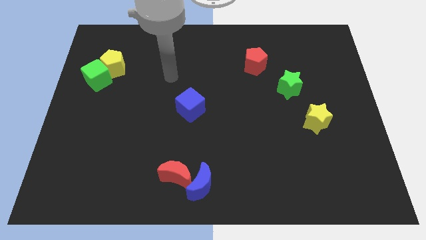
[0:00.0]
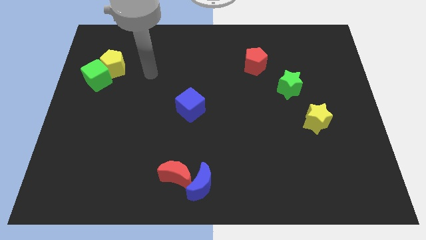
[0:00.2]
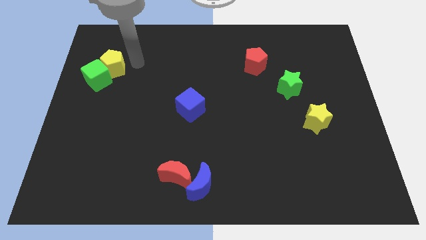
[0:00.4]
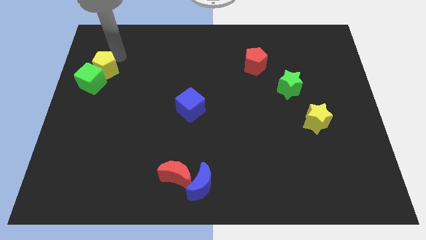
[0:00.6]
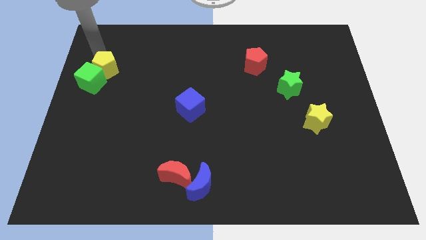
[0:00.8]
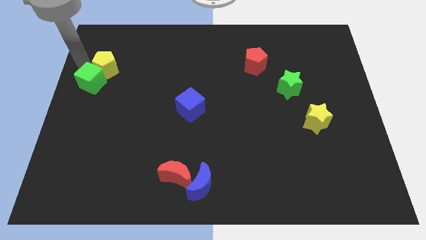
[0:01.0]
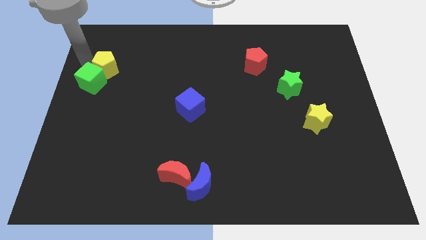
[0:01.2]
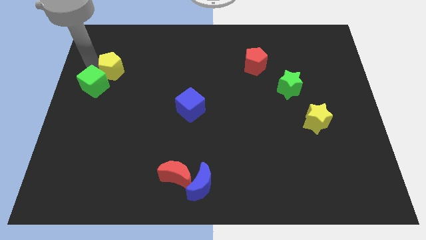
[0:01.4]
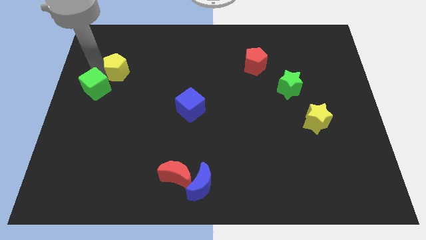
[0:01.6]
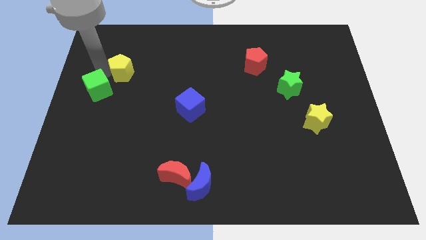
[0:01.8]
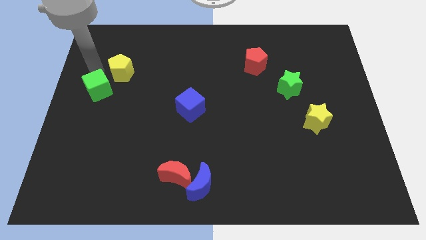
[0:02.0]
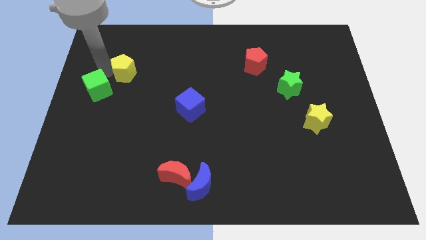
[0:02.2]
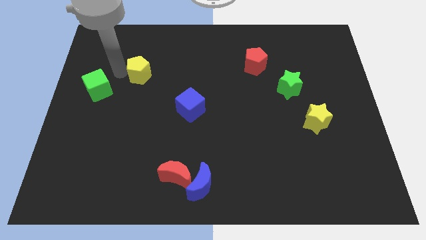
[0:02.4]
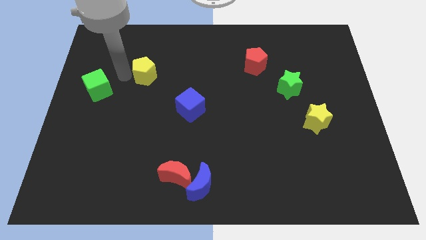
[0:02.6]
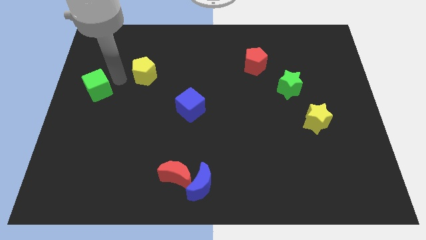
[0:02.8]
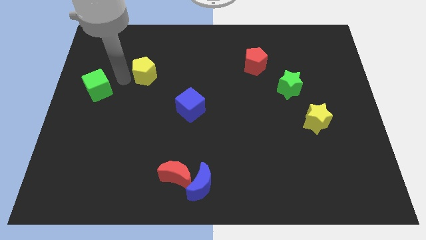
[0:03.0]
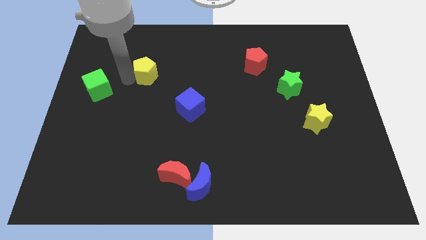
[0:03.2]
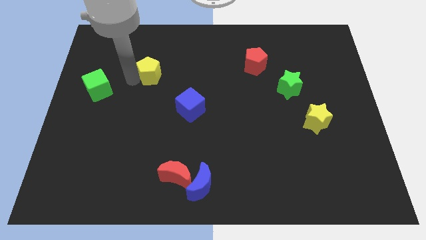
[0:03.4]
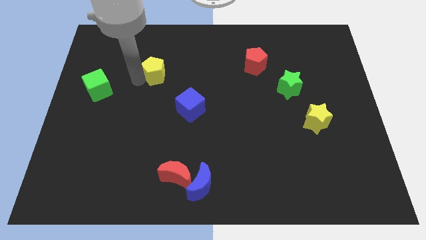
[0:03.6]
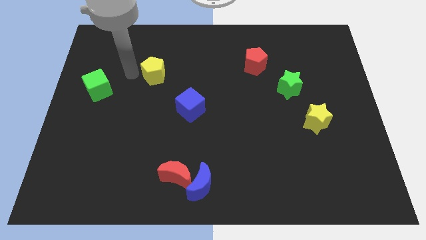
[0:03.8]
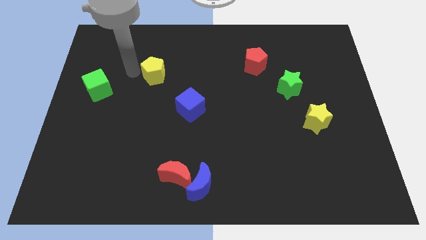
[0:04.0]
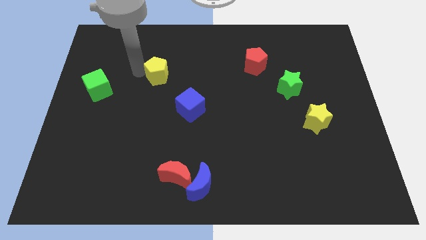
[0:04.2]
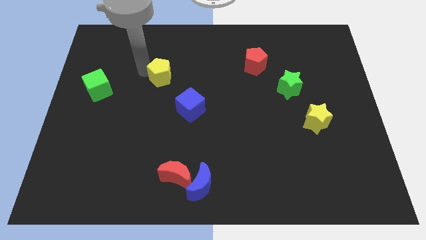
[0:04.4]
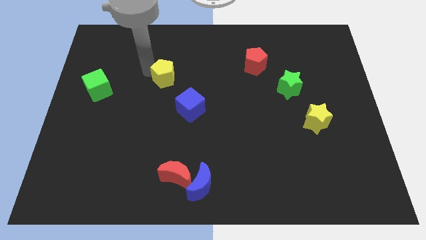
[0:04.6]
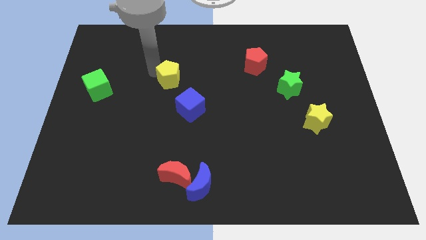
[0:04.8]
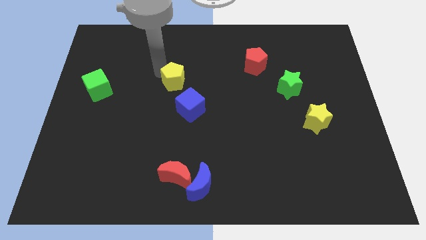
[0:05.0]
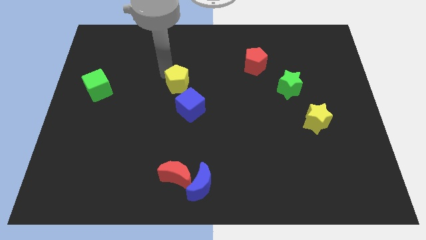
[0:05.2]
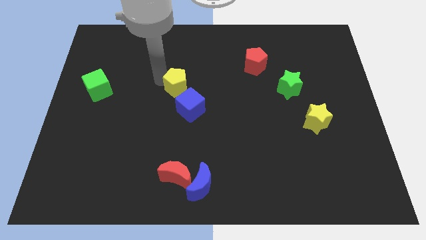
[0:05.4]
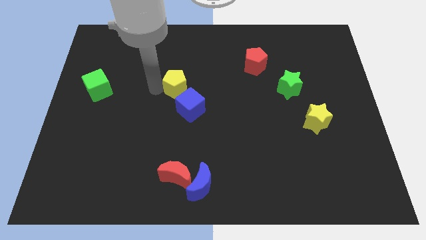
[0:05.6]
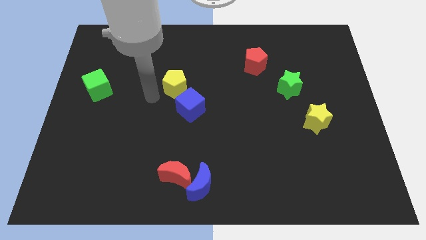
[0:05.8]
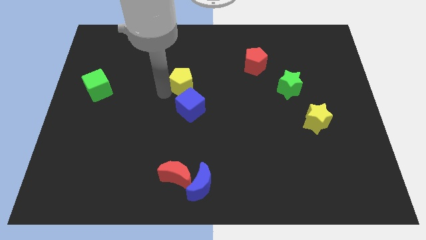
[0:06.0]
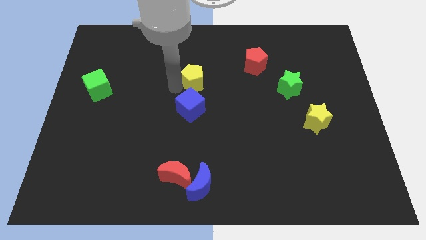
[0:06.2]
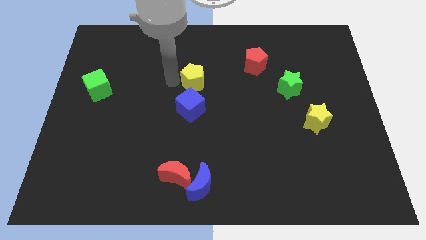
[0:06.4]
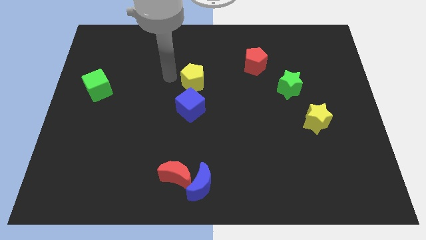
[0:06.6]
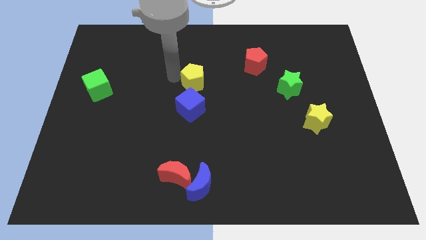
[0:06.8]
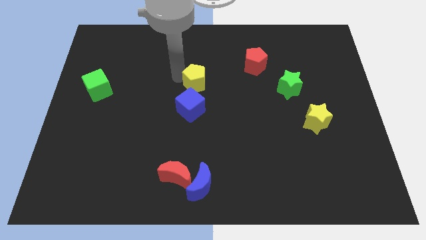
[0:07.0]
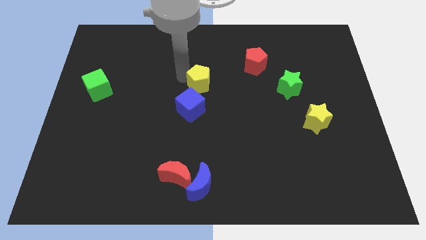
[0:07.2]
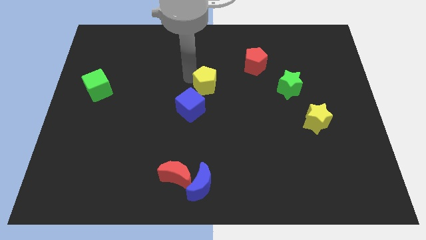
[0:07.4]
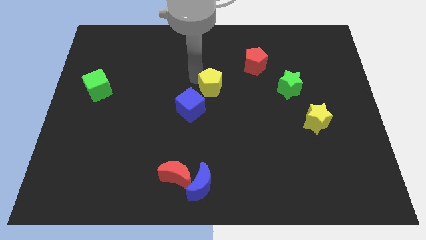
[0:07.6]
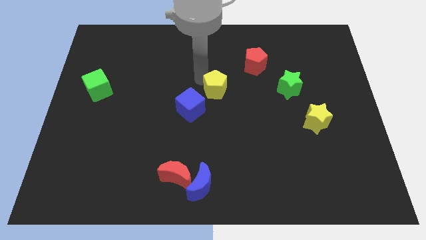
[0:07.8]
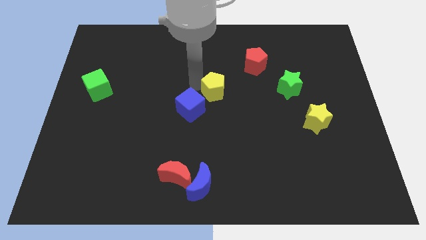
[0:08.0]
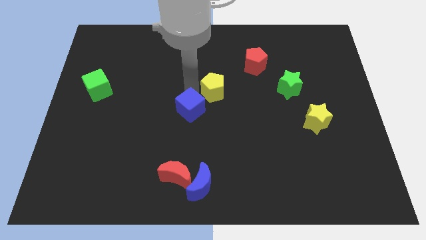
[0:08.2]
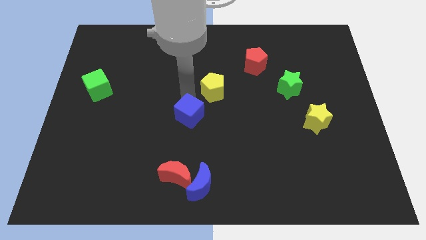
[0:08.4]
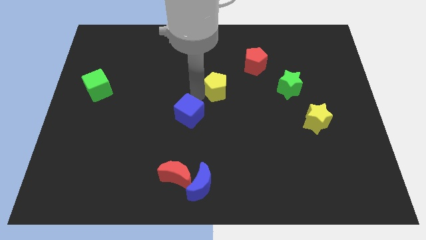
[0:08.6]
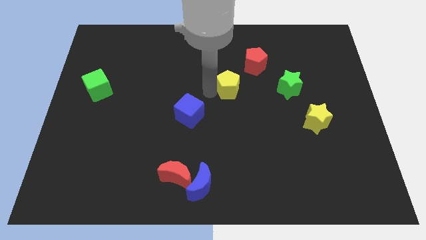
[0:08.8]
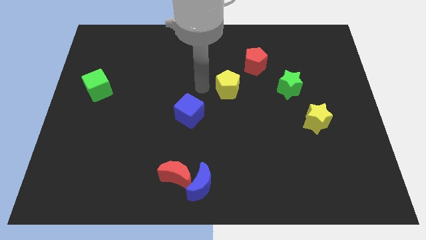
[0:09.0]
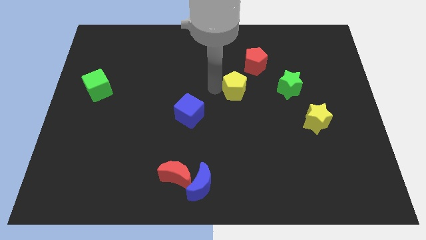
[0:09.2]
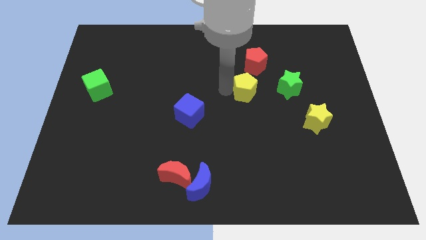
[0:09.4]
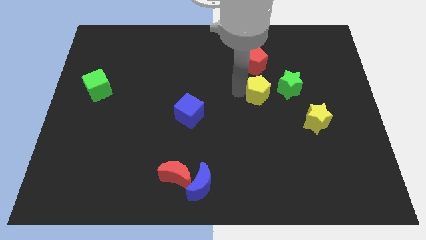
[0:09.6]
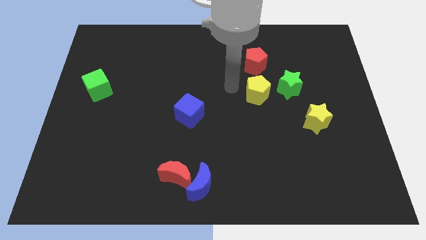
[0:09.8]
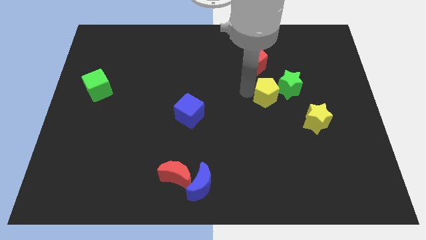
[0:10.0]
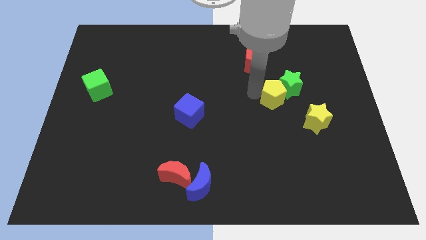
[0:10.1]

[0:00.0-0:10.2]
push the yellow pentagon diagonally up and to the left of the yellow star

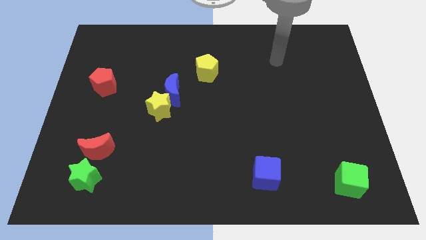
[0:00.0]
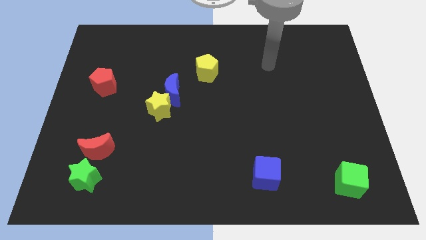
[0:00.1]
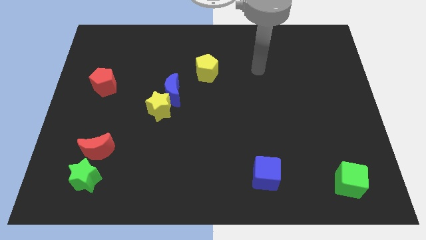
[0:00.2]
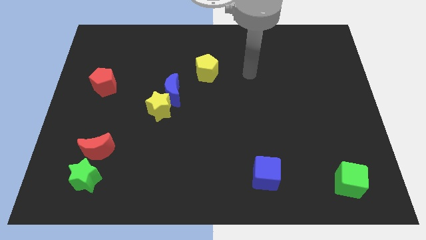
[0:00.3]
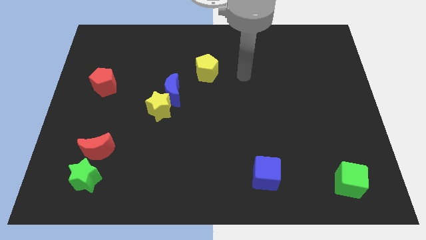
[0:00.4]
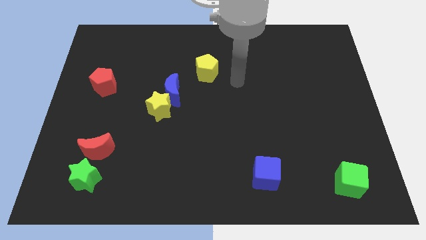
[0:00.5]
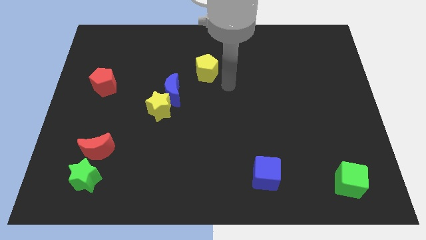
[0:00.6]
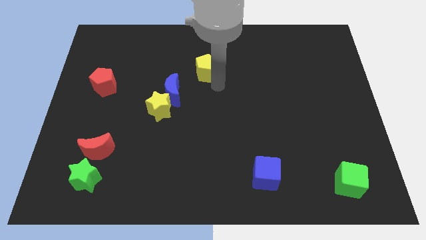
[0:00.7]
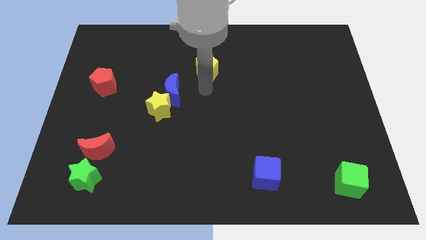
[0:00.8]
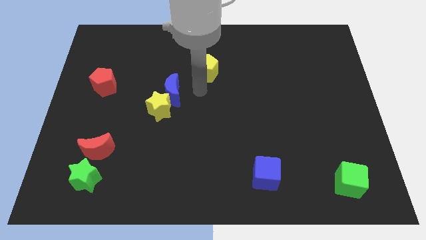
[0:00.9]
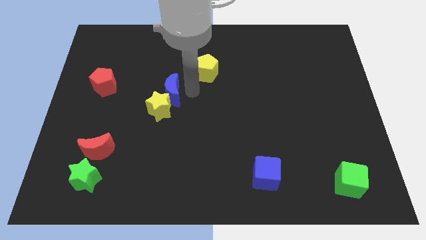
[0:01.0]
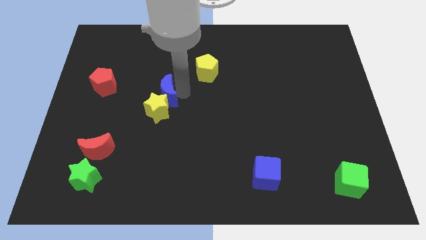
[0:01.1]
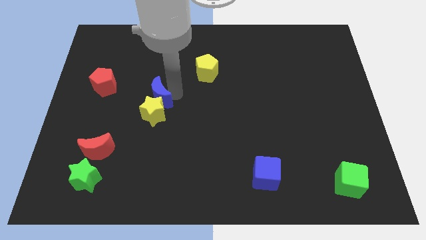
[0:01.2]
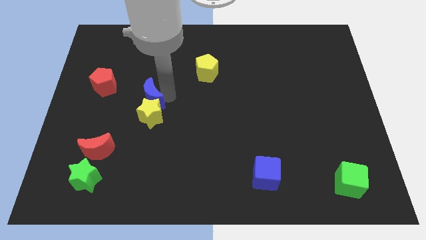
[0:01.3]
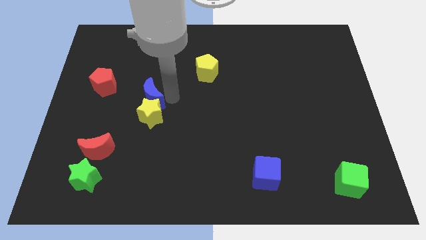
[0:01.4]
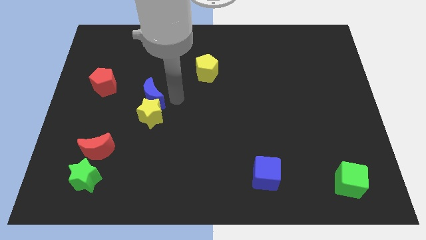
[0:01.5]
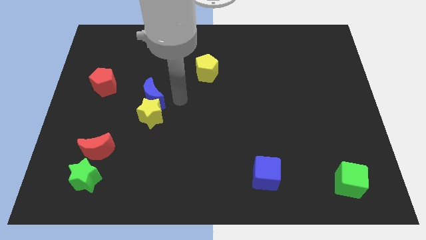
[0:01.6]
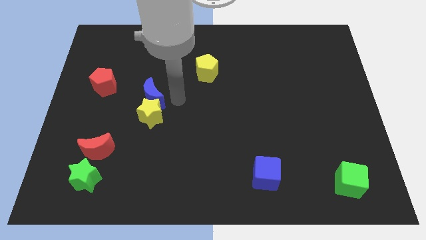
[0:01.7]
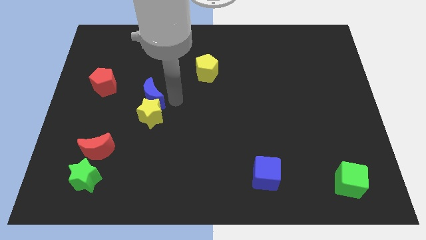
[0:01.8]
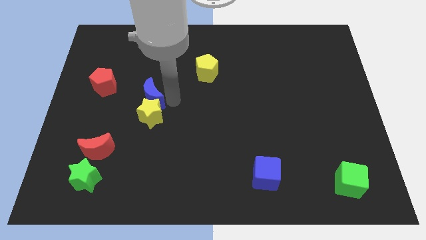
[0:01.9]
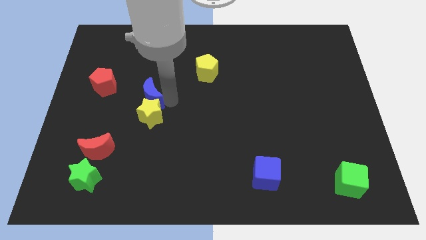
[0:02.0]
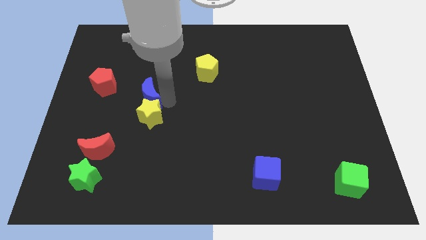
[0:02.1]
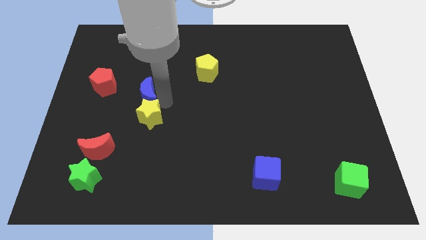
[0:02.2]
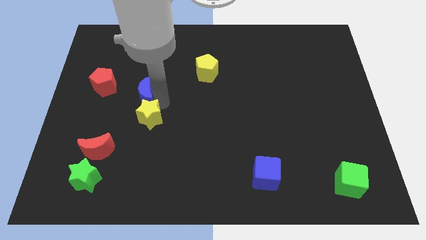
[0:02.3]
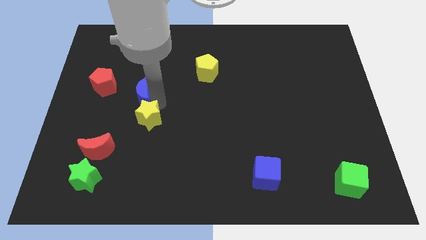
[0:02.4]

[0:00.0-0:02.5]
slide the blue moon to the bottom right of the red pentagon
